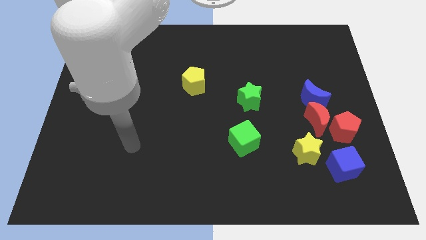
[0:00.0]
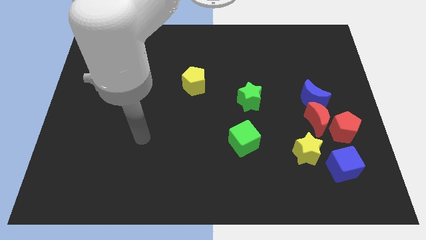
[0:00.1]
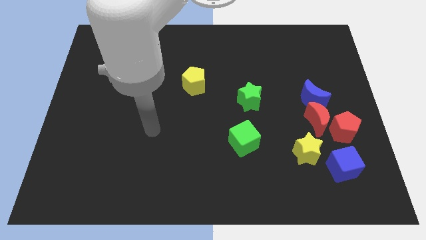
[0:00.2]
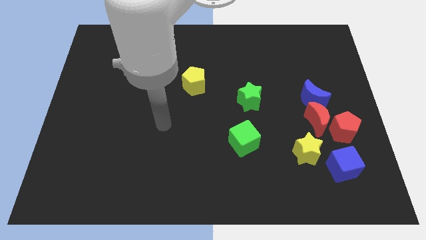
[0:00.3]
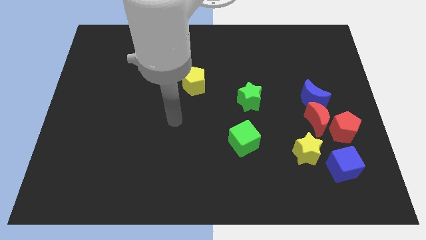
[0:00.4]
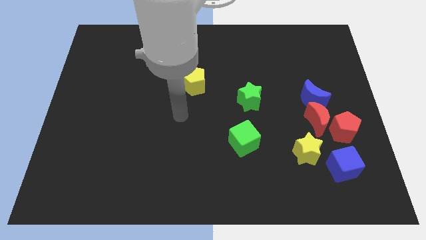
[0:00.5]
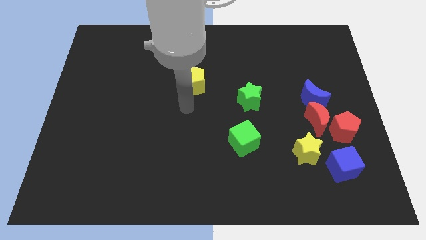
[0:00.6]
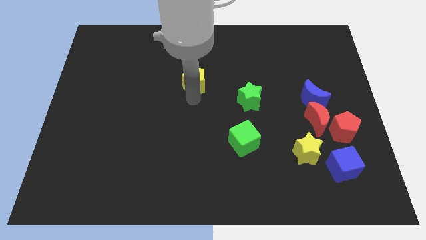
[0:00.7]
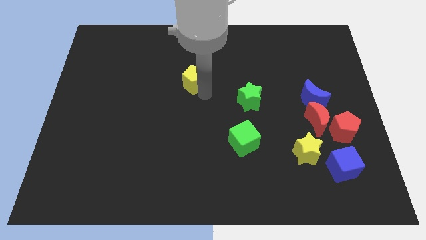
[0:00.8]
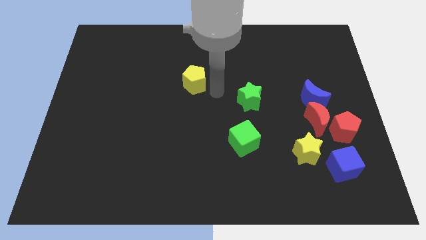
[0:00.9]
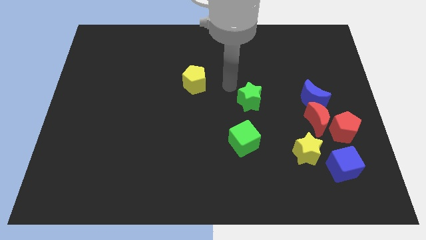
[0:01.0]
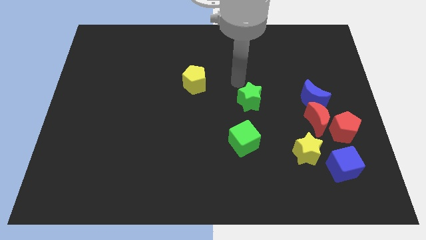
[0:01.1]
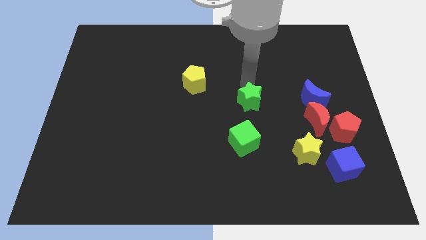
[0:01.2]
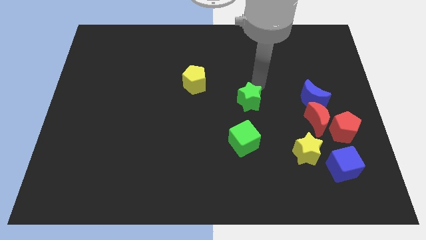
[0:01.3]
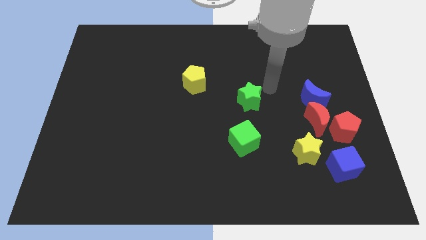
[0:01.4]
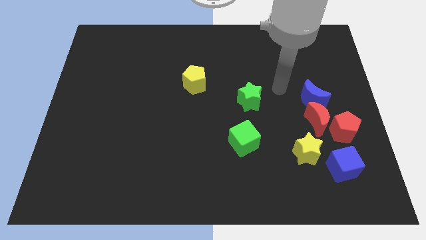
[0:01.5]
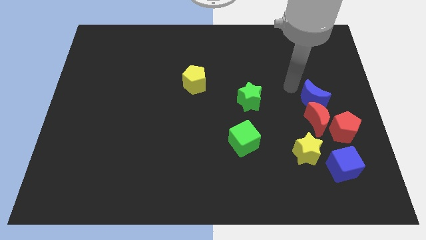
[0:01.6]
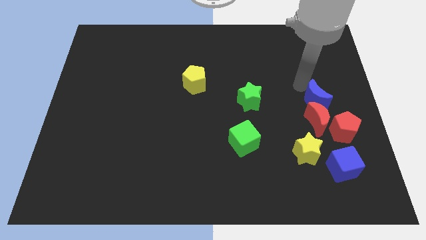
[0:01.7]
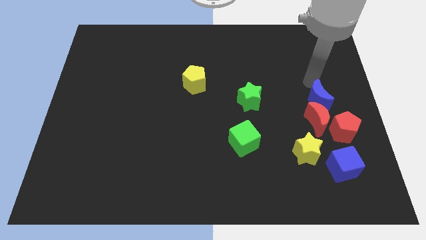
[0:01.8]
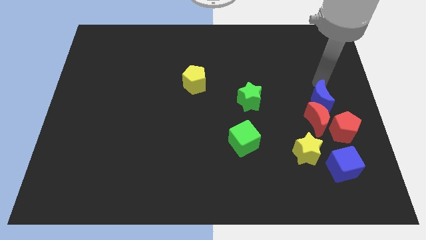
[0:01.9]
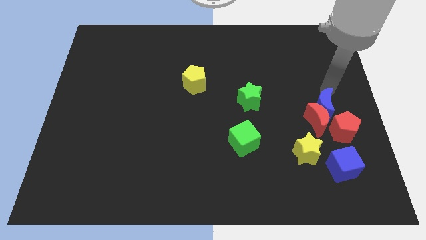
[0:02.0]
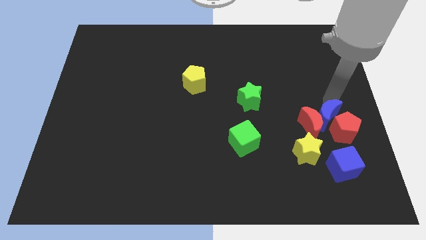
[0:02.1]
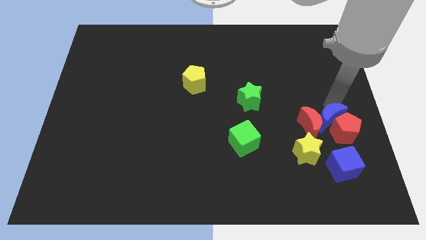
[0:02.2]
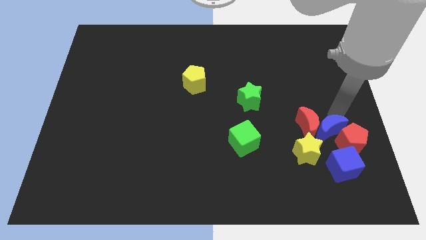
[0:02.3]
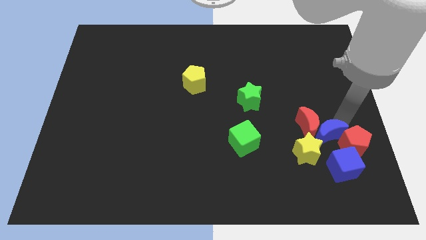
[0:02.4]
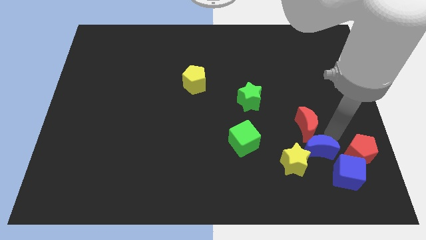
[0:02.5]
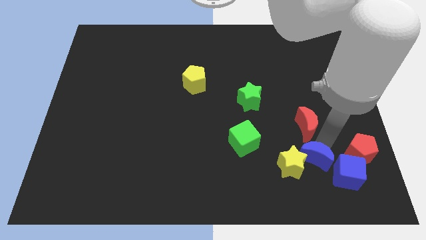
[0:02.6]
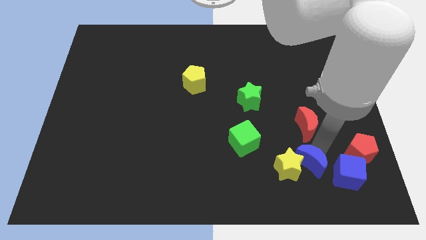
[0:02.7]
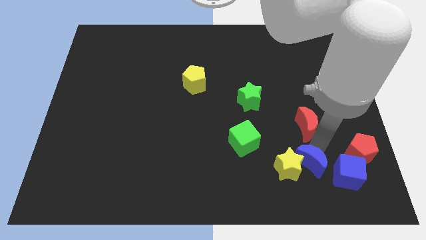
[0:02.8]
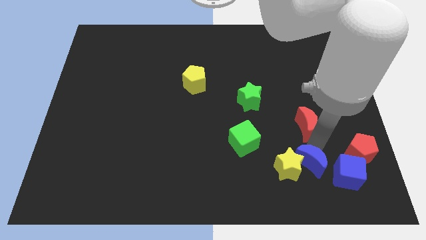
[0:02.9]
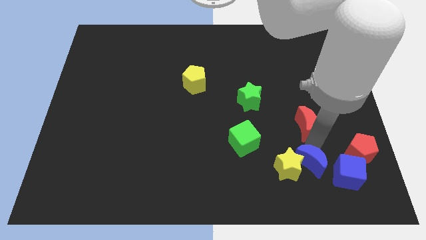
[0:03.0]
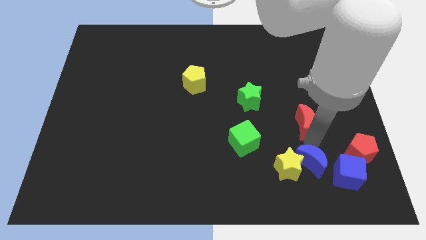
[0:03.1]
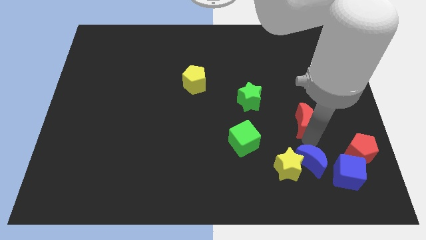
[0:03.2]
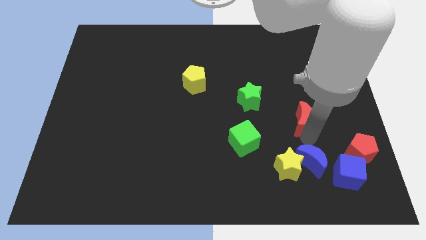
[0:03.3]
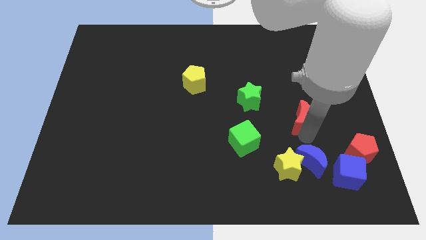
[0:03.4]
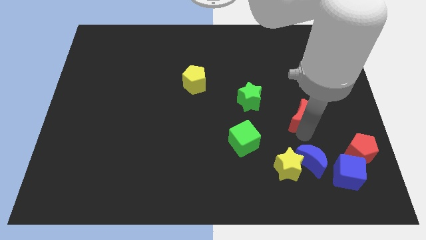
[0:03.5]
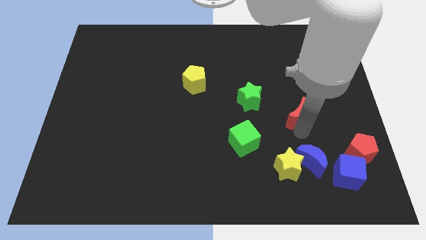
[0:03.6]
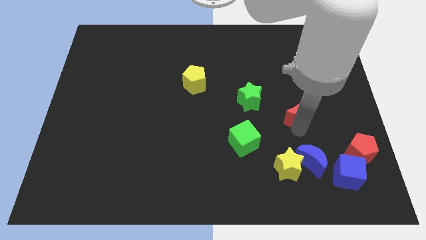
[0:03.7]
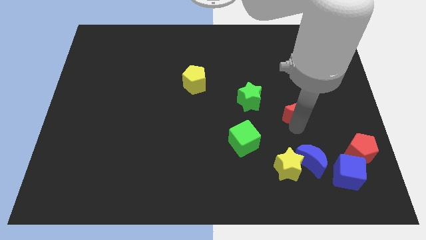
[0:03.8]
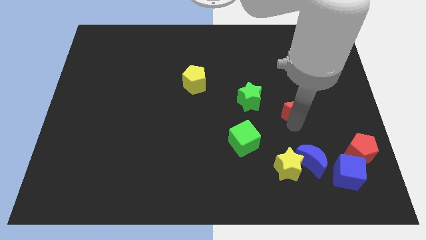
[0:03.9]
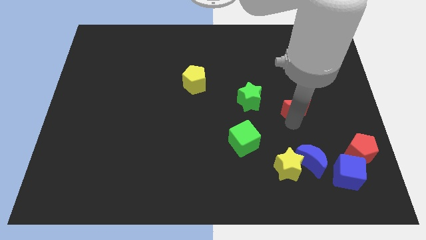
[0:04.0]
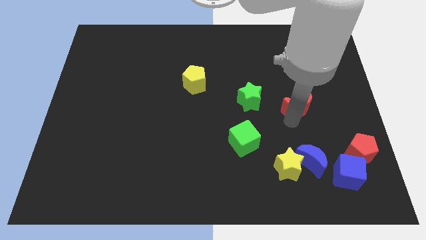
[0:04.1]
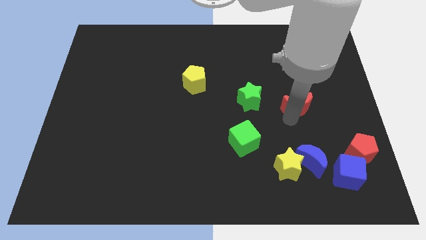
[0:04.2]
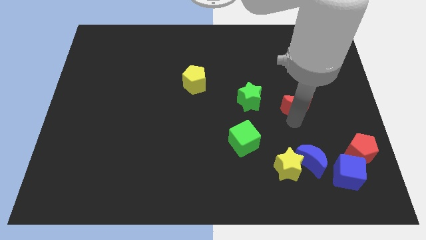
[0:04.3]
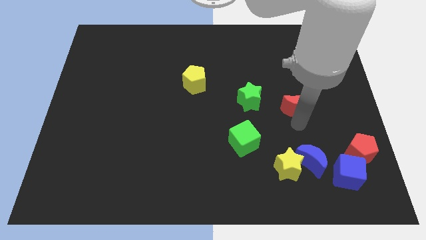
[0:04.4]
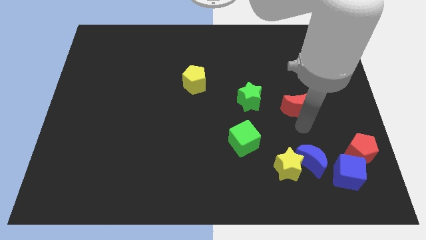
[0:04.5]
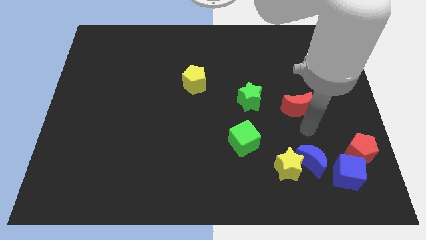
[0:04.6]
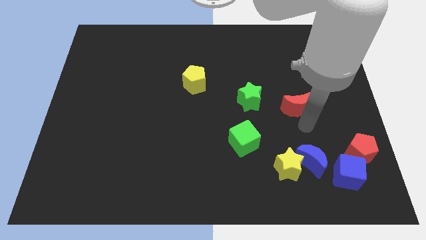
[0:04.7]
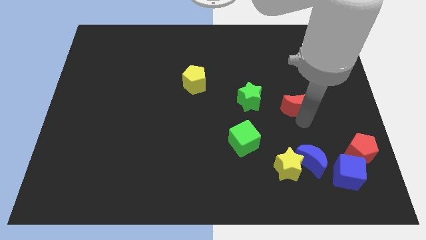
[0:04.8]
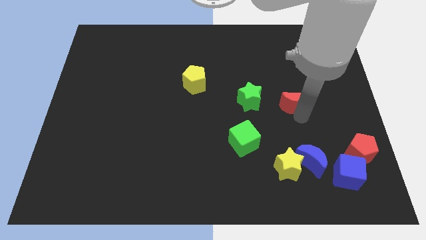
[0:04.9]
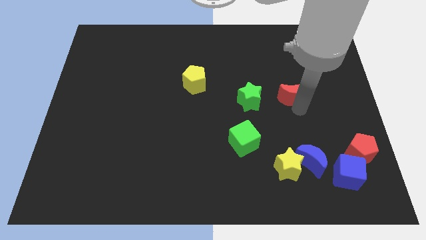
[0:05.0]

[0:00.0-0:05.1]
slightly move the red moon up and to the left

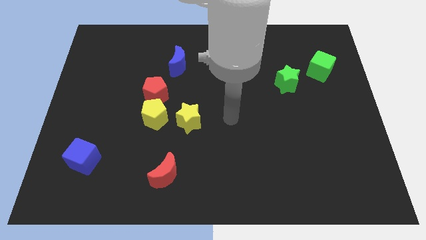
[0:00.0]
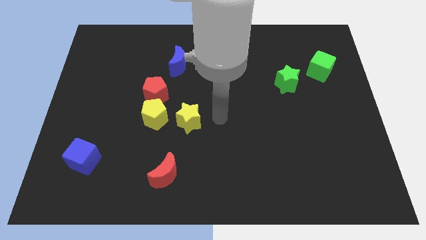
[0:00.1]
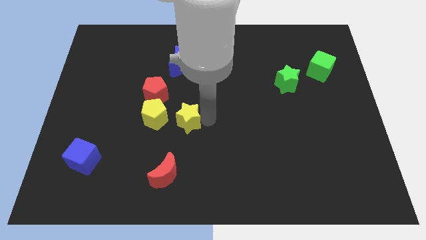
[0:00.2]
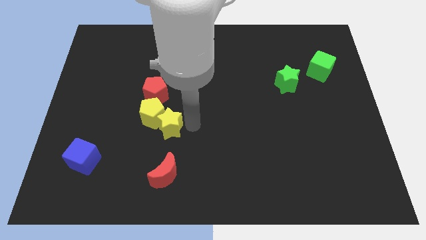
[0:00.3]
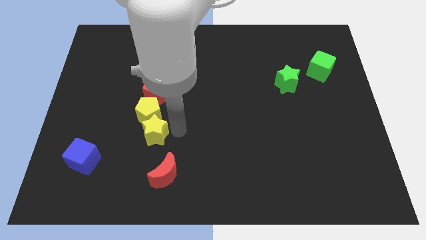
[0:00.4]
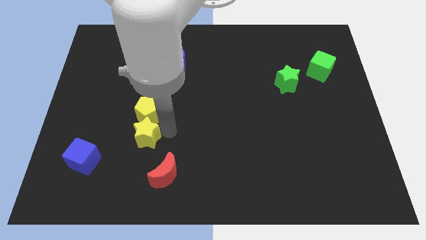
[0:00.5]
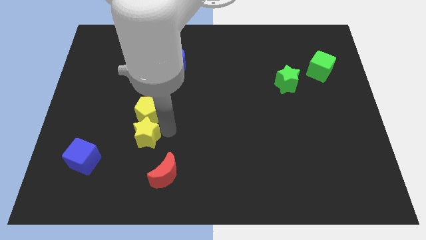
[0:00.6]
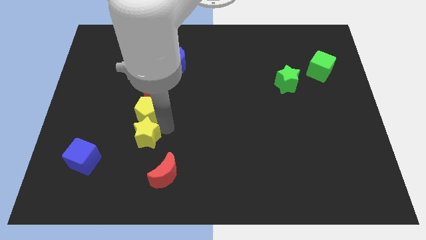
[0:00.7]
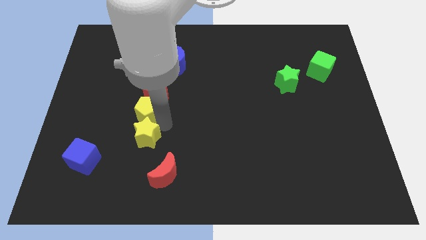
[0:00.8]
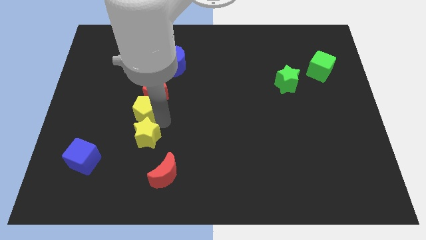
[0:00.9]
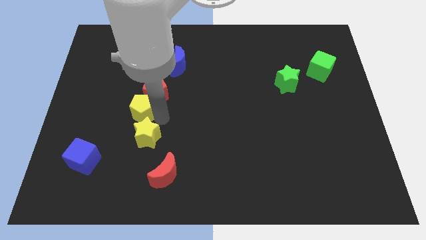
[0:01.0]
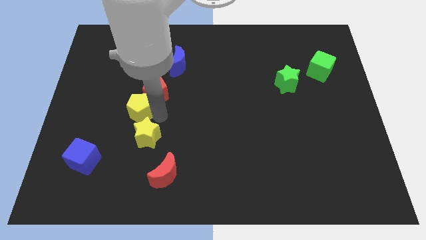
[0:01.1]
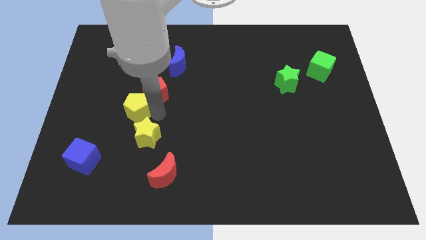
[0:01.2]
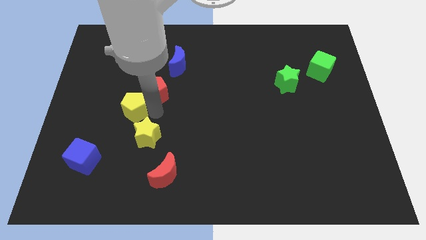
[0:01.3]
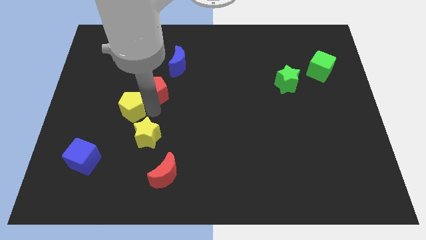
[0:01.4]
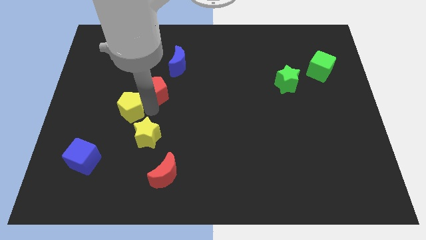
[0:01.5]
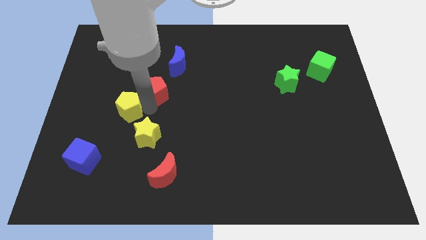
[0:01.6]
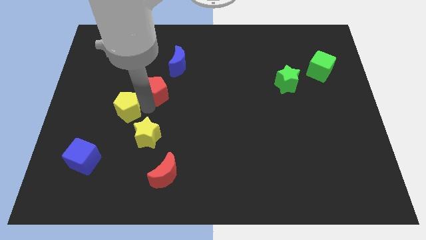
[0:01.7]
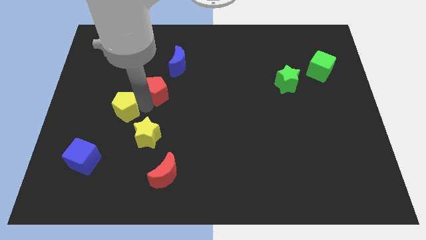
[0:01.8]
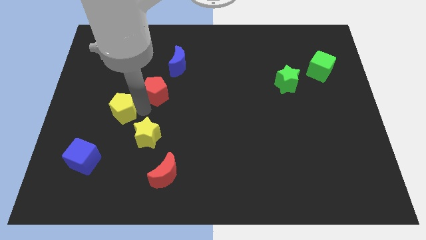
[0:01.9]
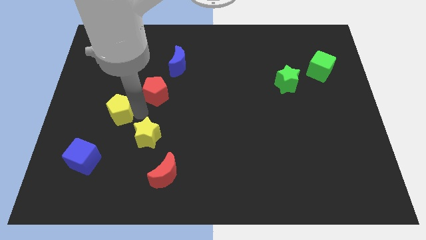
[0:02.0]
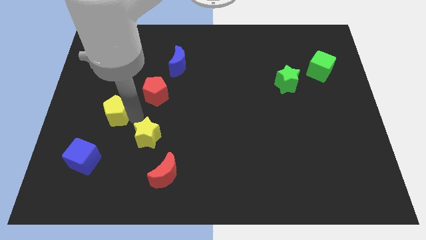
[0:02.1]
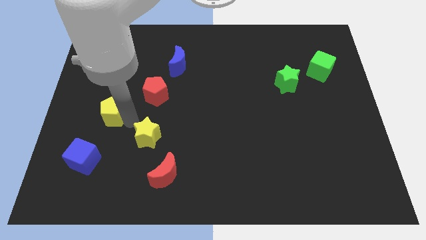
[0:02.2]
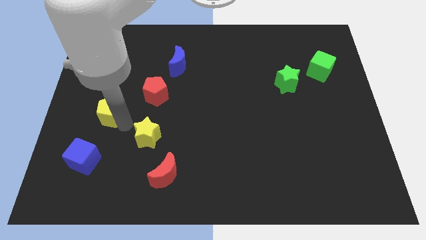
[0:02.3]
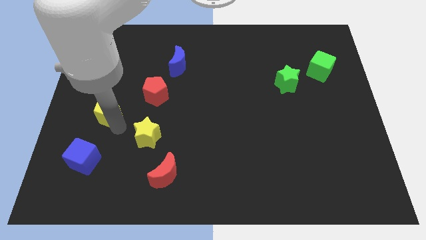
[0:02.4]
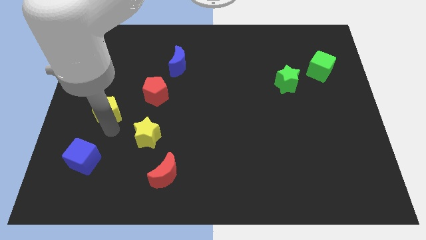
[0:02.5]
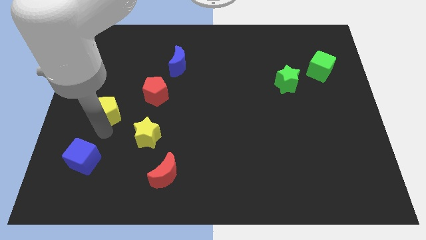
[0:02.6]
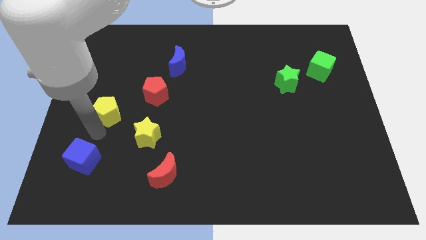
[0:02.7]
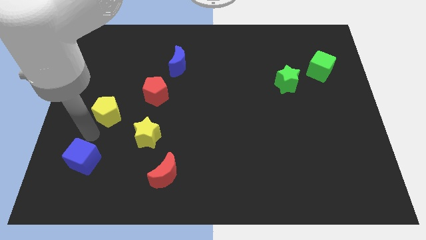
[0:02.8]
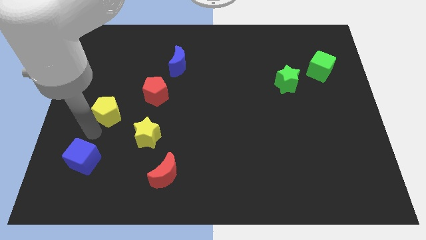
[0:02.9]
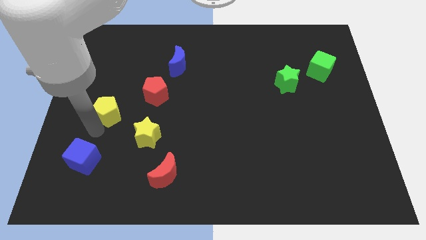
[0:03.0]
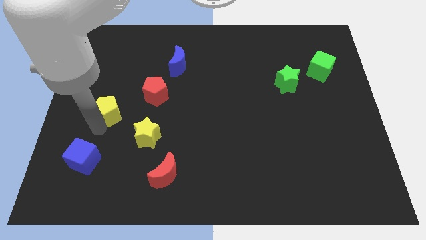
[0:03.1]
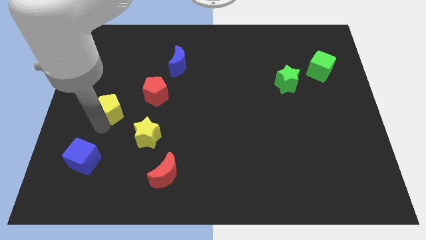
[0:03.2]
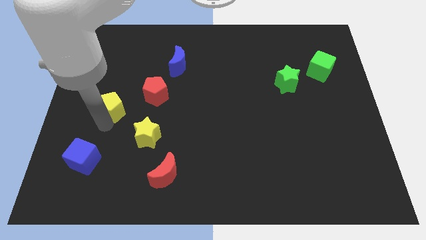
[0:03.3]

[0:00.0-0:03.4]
push the yellow pentagon a little bit upwards and then left
